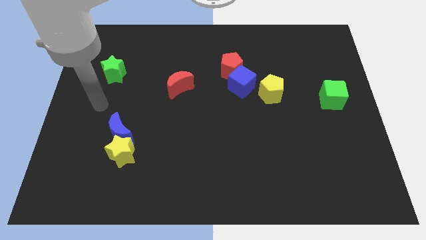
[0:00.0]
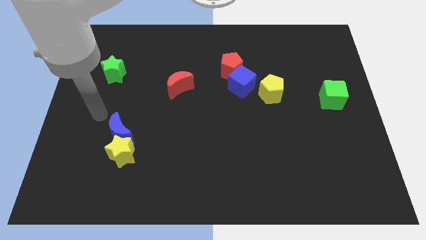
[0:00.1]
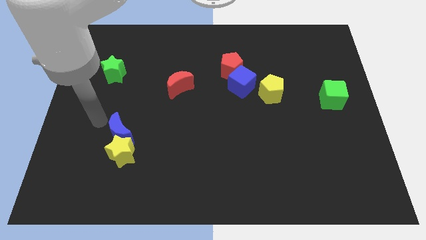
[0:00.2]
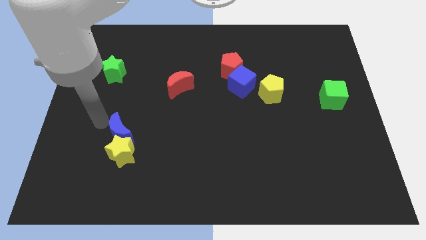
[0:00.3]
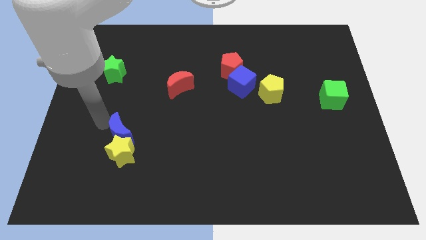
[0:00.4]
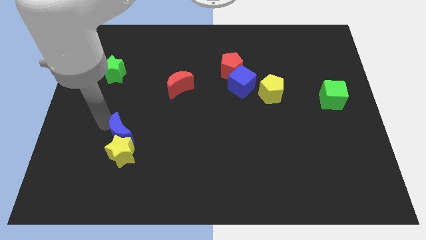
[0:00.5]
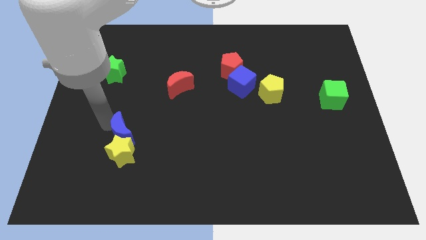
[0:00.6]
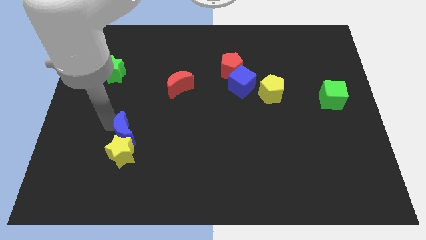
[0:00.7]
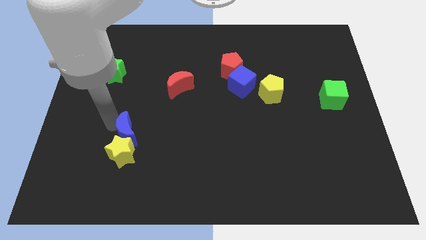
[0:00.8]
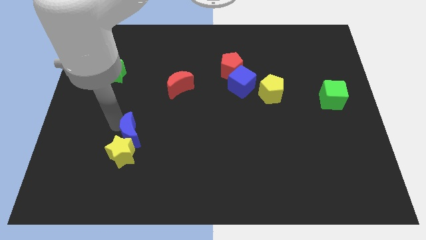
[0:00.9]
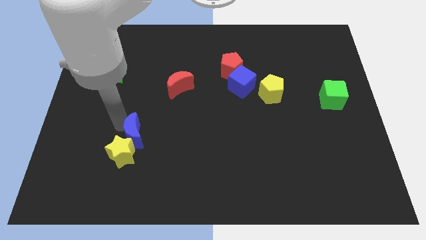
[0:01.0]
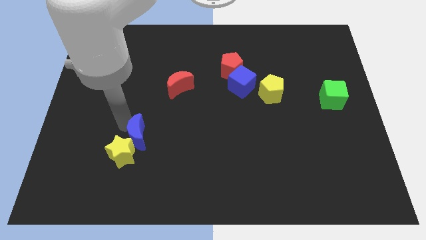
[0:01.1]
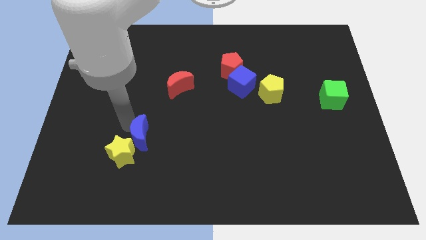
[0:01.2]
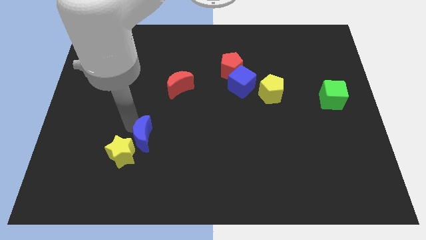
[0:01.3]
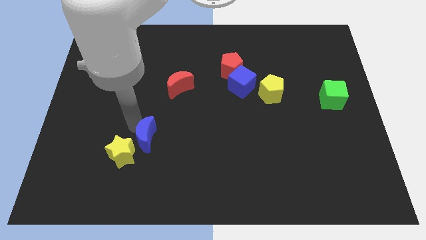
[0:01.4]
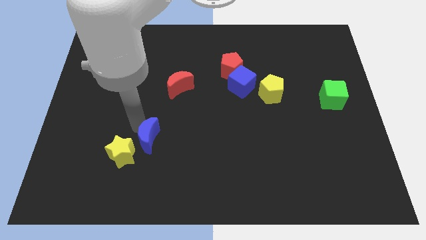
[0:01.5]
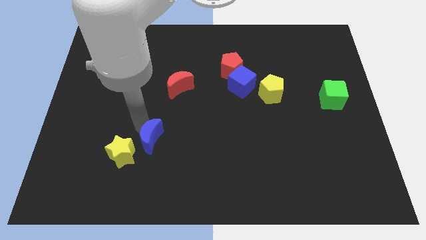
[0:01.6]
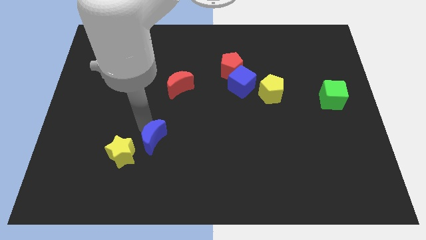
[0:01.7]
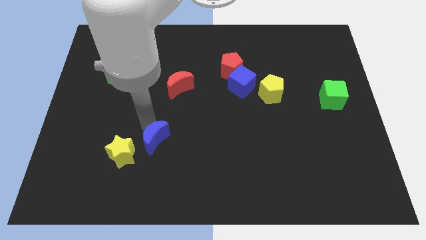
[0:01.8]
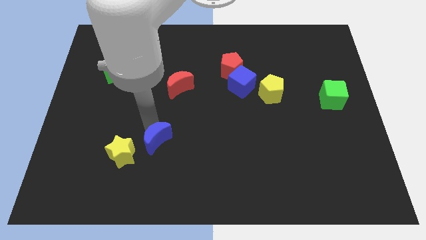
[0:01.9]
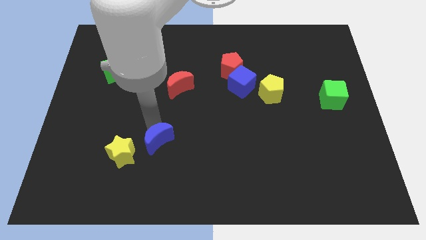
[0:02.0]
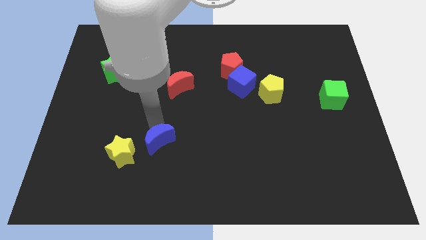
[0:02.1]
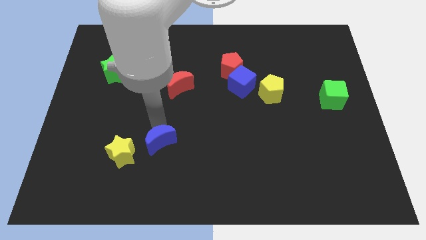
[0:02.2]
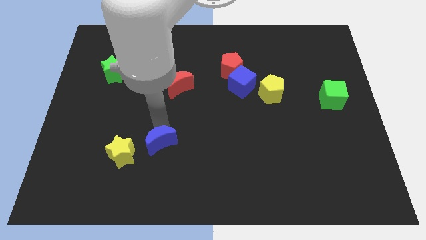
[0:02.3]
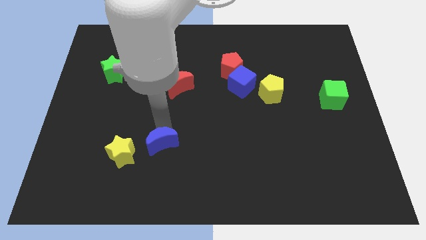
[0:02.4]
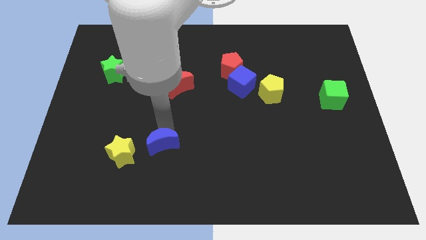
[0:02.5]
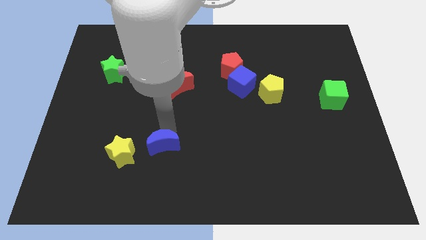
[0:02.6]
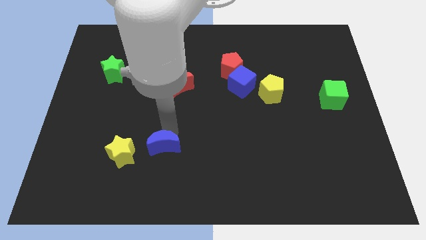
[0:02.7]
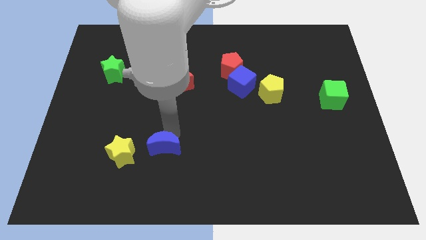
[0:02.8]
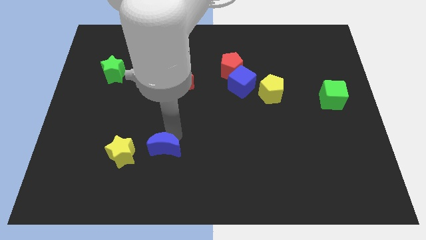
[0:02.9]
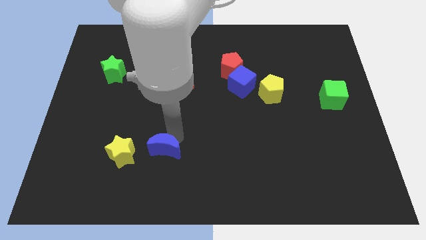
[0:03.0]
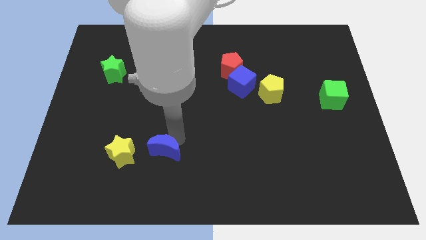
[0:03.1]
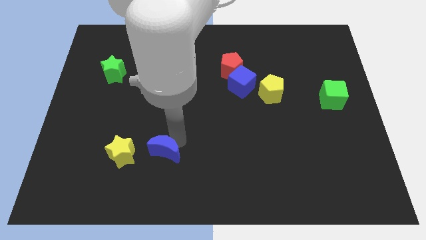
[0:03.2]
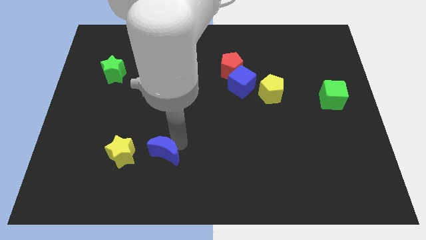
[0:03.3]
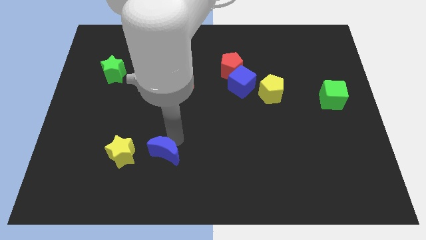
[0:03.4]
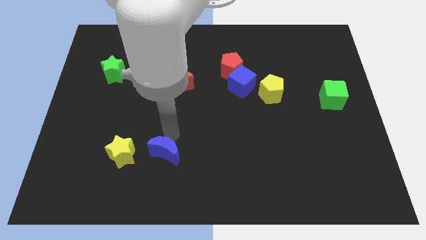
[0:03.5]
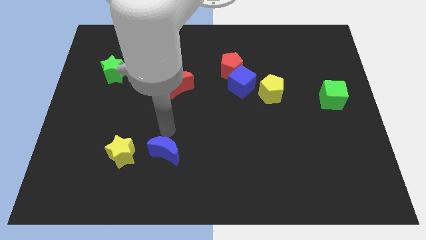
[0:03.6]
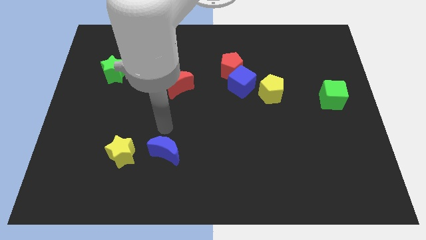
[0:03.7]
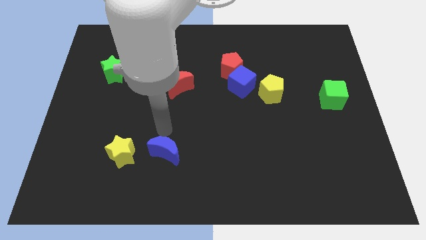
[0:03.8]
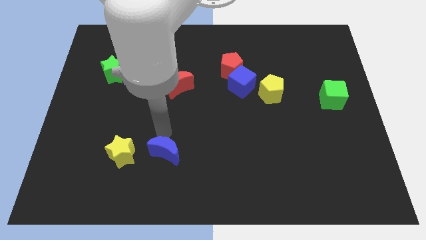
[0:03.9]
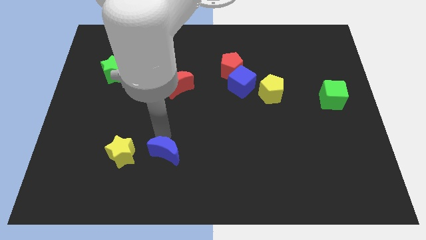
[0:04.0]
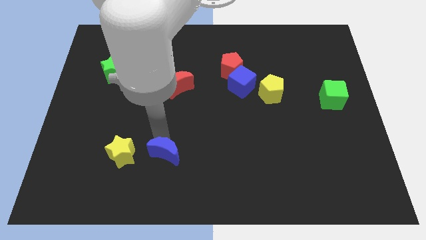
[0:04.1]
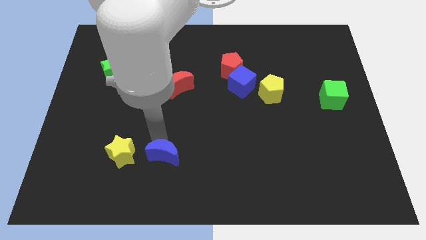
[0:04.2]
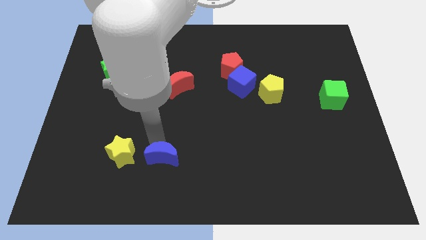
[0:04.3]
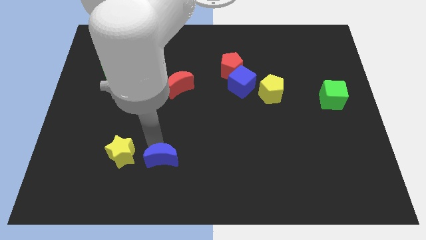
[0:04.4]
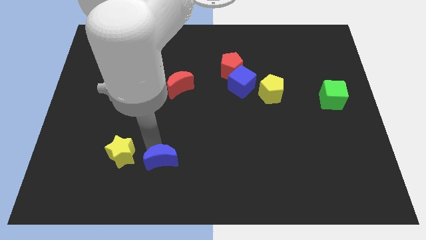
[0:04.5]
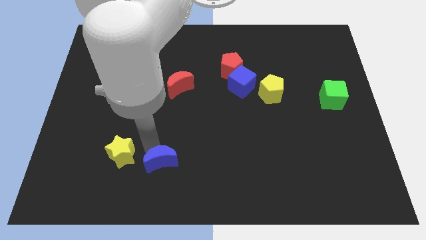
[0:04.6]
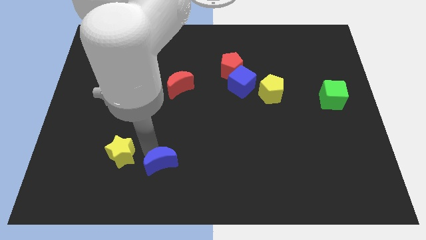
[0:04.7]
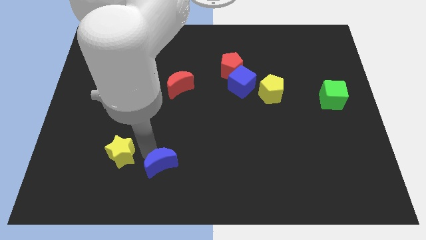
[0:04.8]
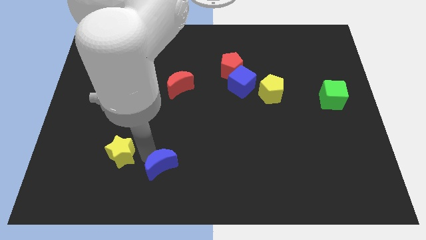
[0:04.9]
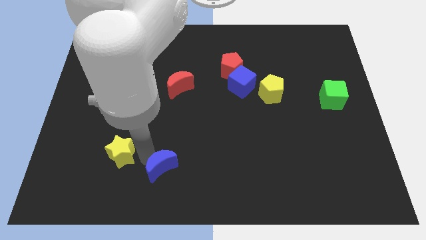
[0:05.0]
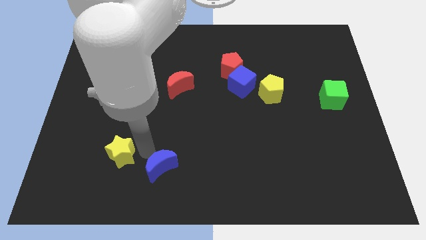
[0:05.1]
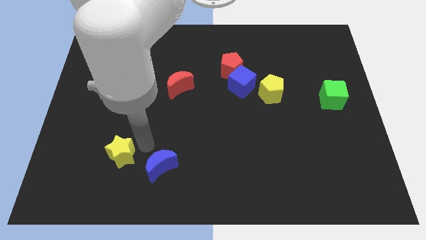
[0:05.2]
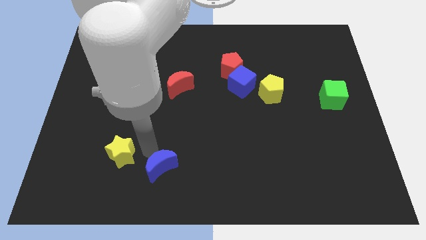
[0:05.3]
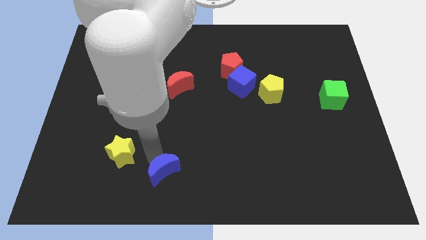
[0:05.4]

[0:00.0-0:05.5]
put the blue moon to the bottom side

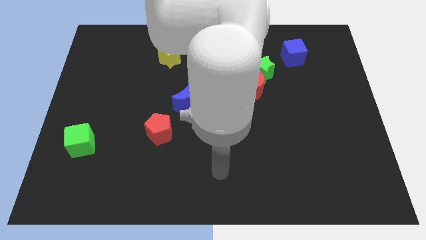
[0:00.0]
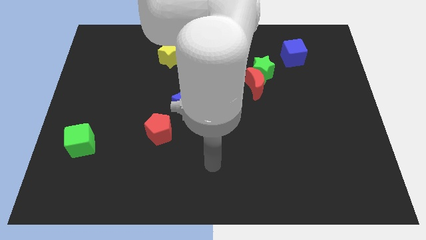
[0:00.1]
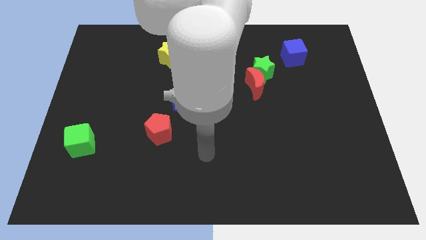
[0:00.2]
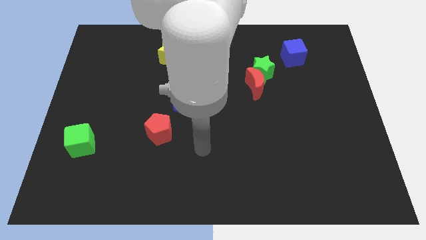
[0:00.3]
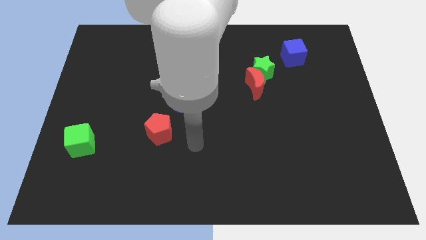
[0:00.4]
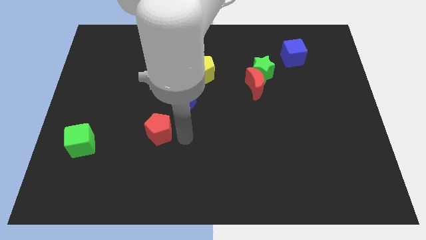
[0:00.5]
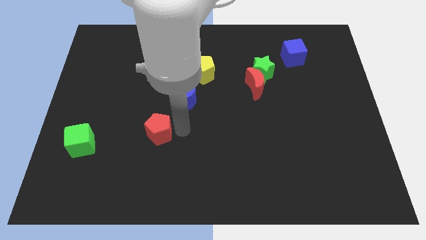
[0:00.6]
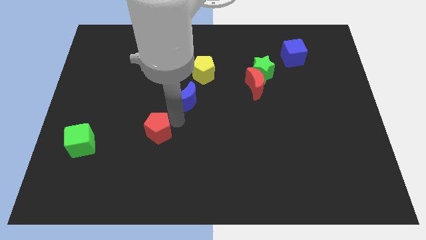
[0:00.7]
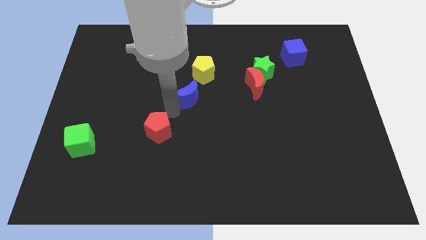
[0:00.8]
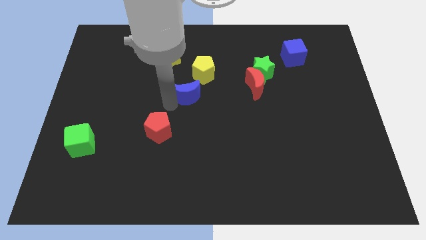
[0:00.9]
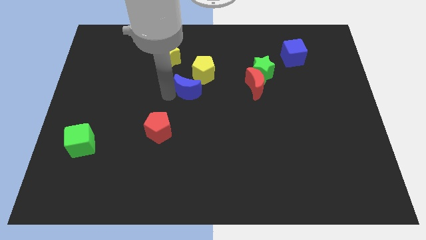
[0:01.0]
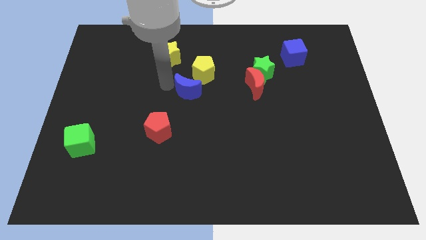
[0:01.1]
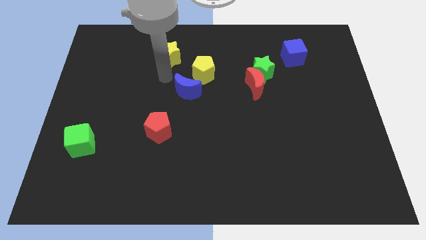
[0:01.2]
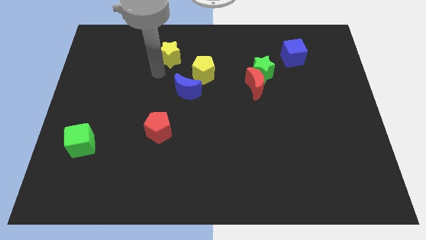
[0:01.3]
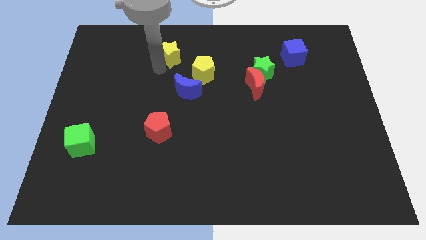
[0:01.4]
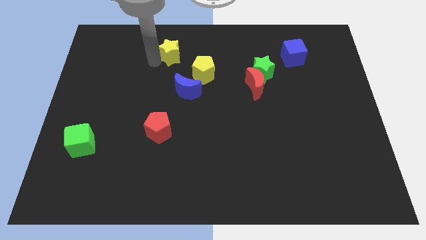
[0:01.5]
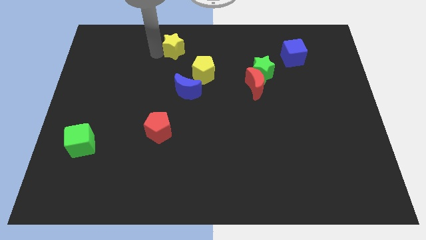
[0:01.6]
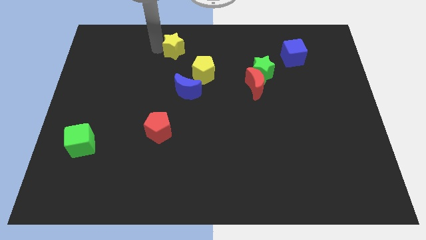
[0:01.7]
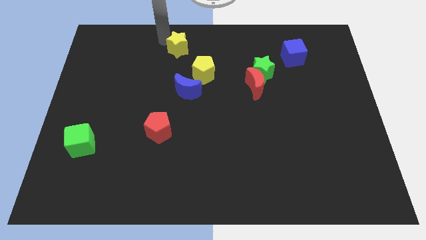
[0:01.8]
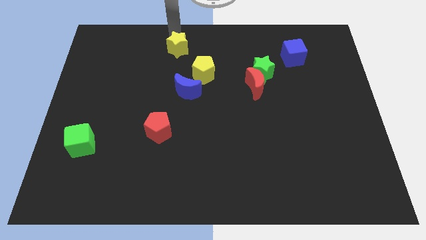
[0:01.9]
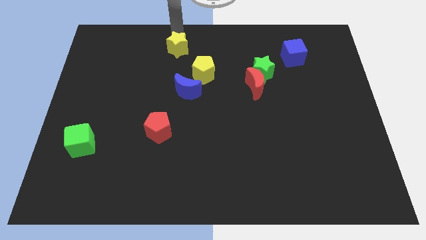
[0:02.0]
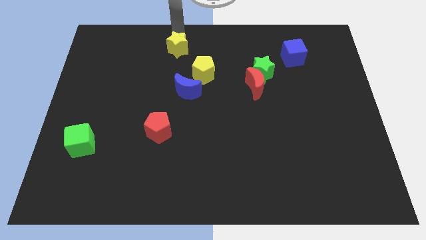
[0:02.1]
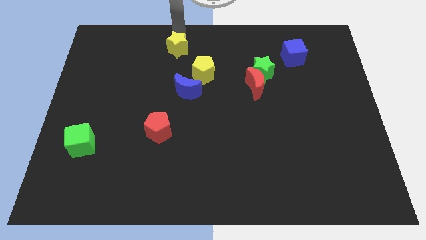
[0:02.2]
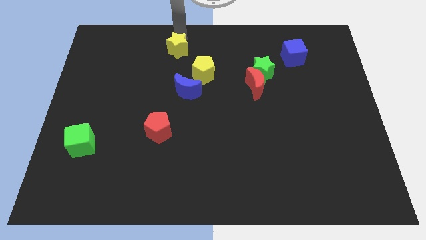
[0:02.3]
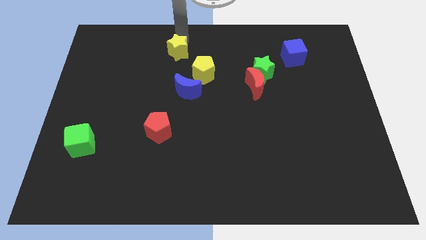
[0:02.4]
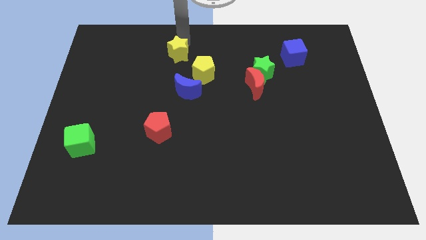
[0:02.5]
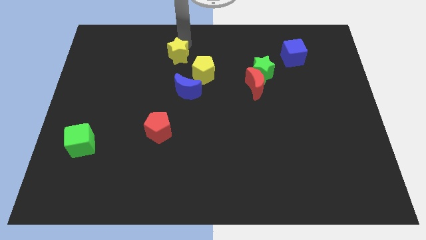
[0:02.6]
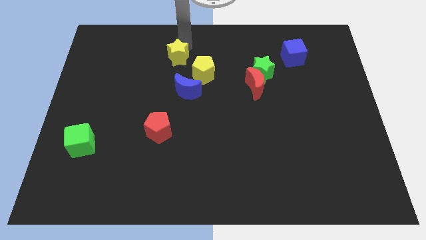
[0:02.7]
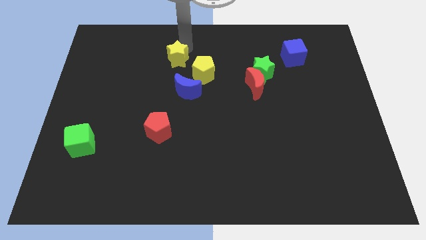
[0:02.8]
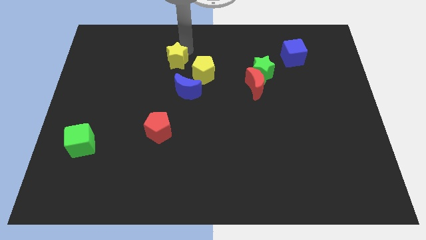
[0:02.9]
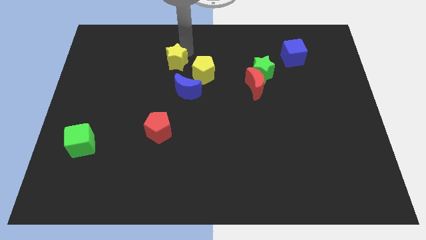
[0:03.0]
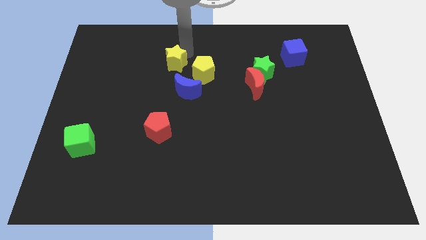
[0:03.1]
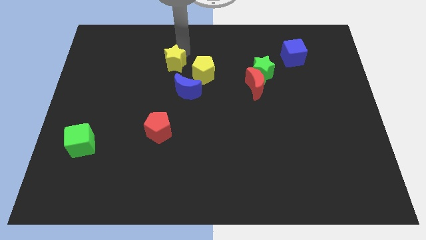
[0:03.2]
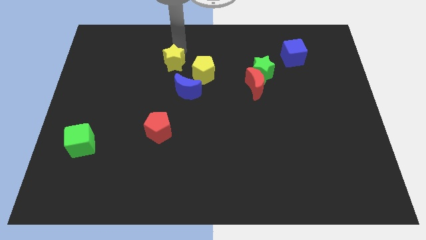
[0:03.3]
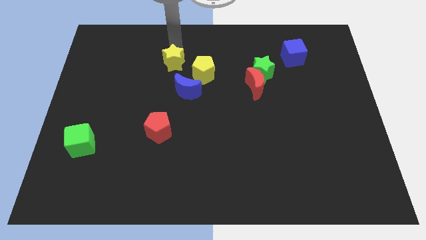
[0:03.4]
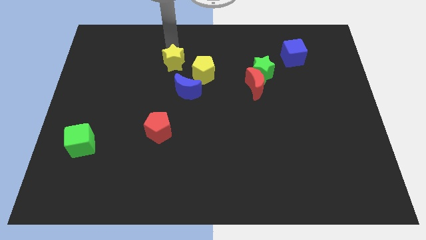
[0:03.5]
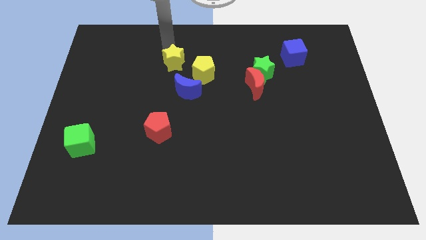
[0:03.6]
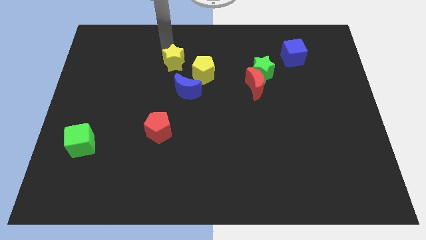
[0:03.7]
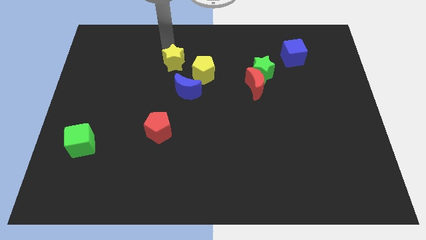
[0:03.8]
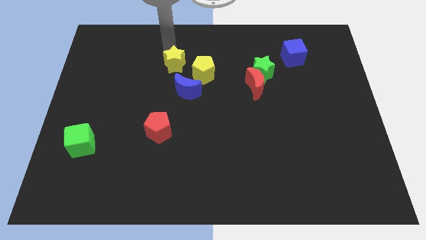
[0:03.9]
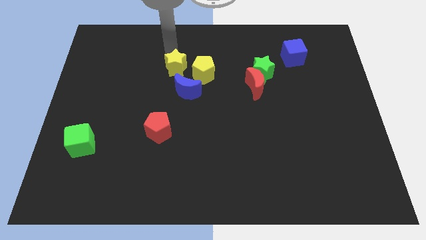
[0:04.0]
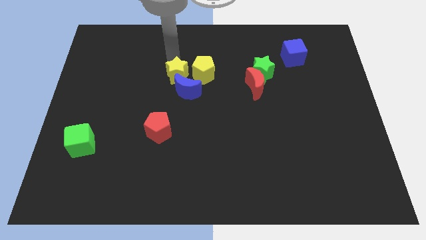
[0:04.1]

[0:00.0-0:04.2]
slide the yellow star to the middle of the board
